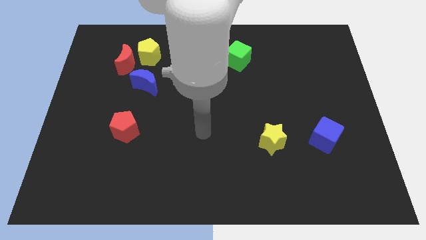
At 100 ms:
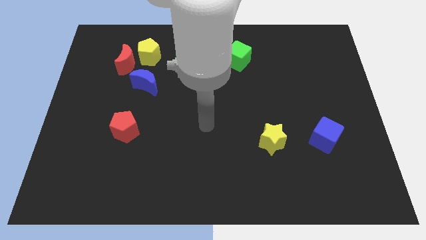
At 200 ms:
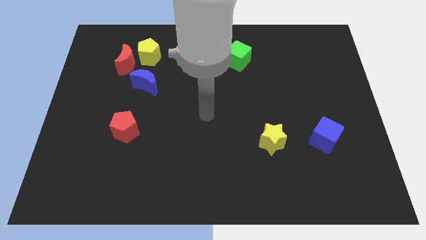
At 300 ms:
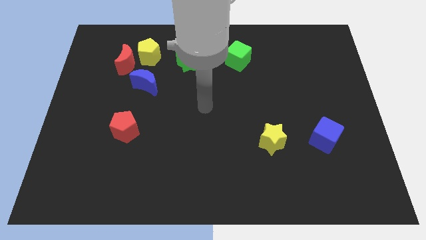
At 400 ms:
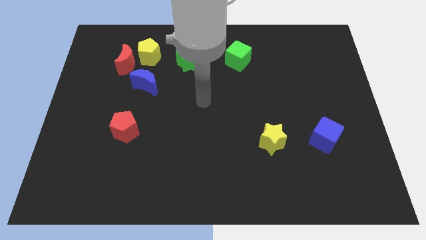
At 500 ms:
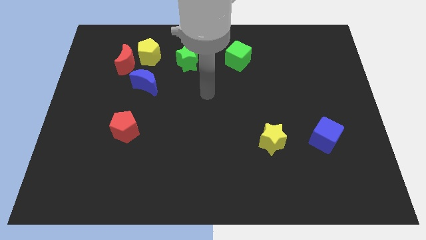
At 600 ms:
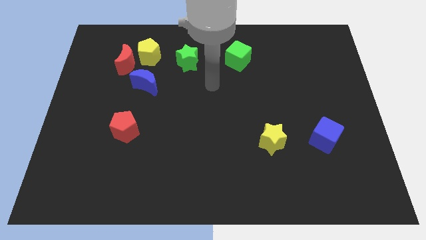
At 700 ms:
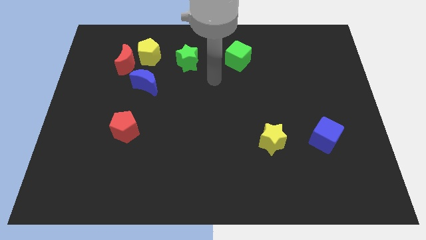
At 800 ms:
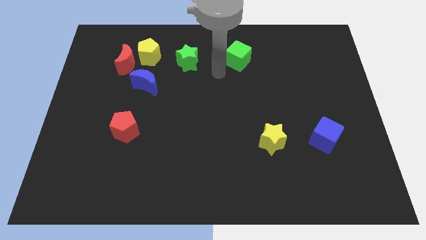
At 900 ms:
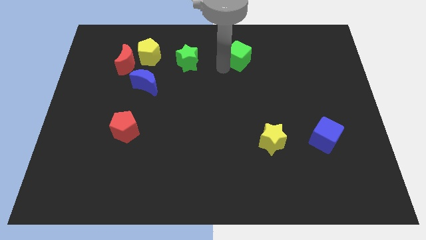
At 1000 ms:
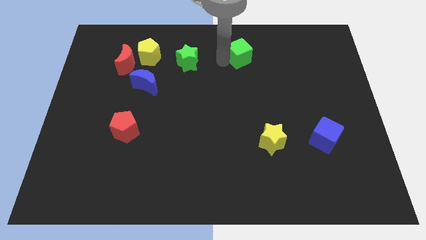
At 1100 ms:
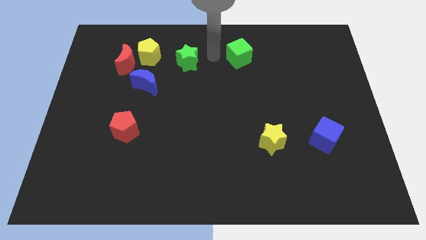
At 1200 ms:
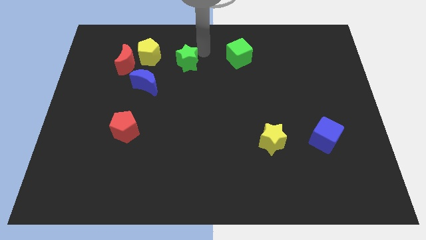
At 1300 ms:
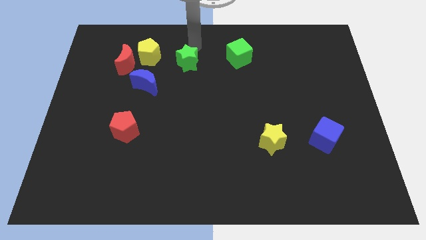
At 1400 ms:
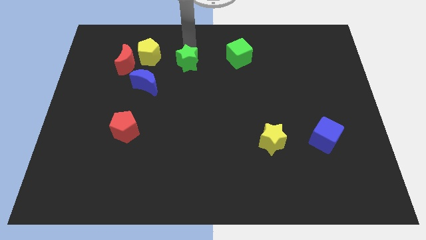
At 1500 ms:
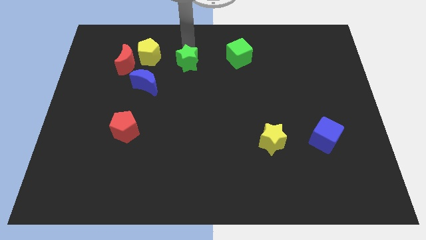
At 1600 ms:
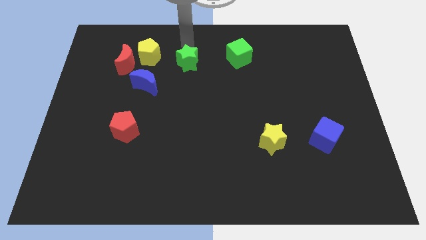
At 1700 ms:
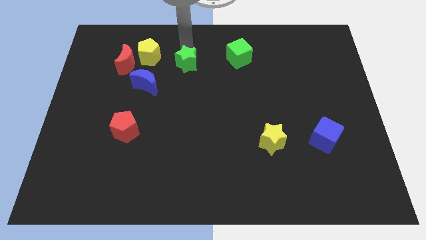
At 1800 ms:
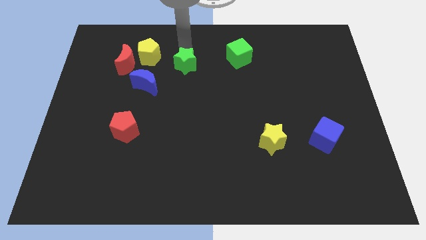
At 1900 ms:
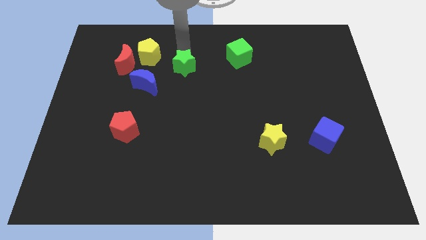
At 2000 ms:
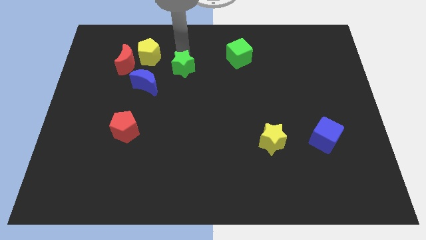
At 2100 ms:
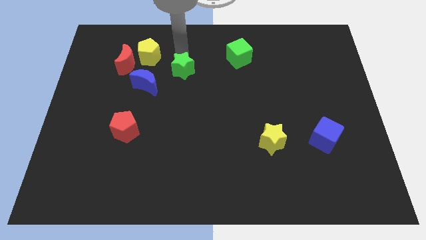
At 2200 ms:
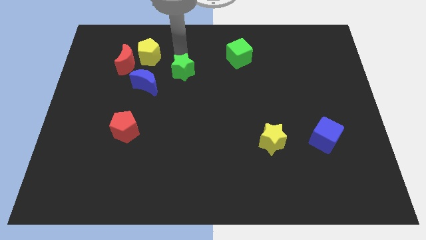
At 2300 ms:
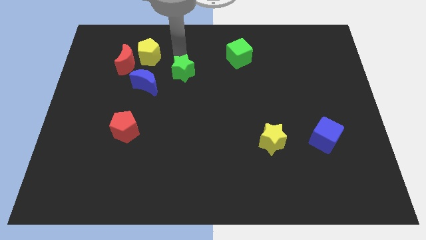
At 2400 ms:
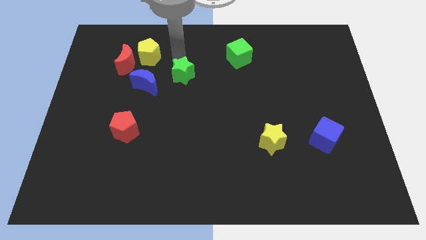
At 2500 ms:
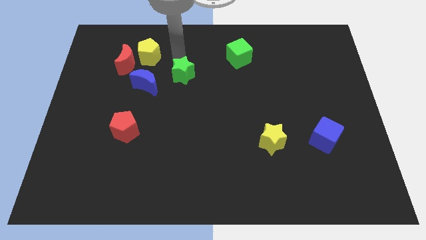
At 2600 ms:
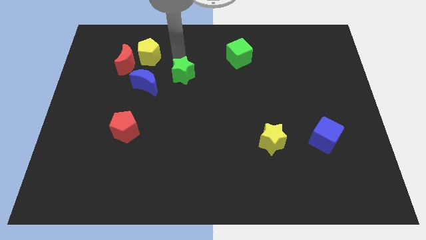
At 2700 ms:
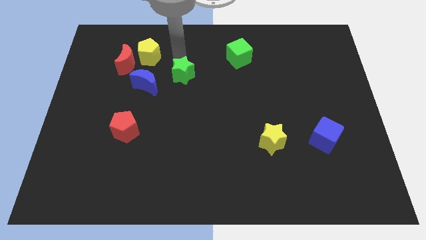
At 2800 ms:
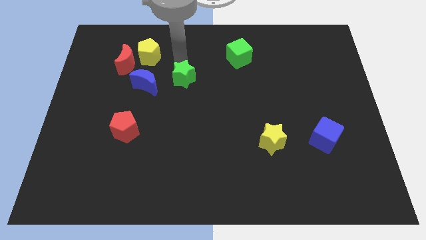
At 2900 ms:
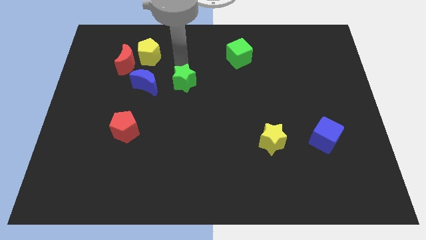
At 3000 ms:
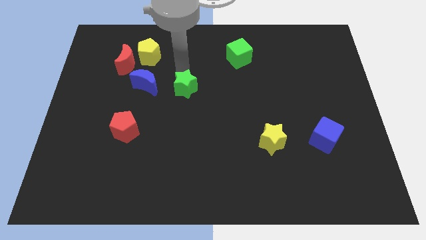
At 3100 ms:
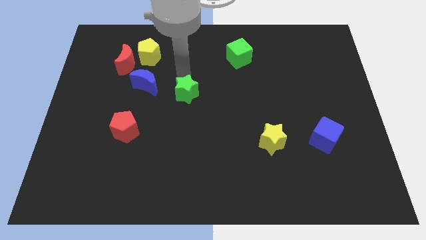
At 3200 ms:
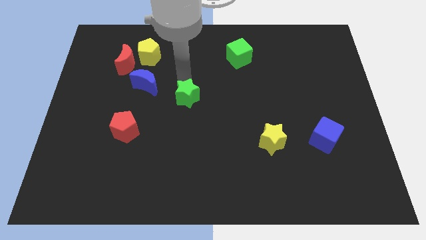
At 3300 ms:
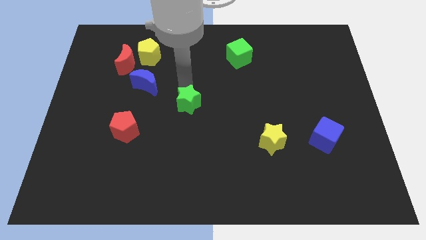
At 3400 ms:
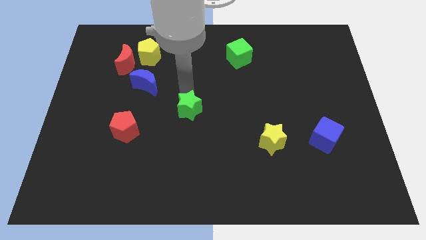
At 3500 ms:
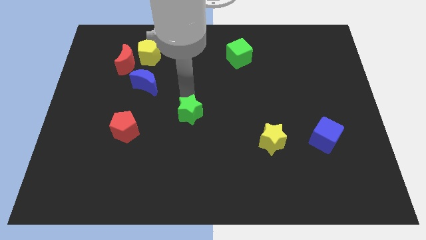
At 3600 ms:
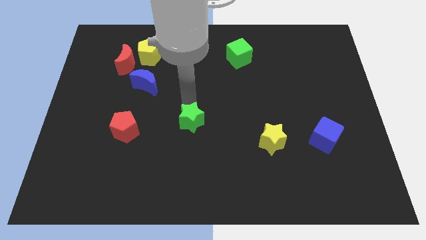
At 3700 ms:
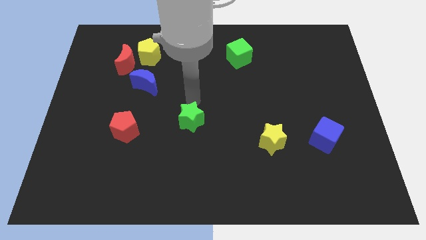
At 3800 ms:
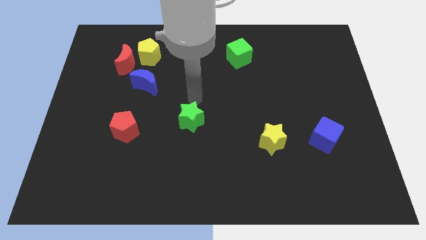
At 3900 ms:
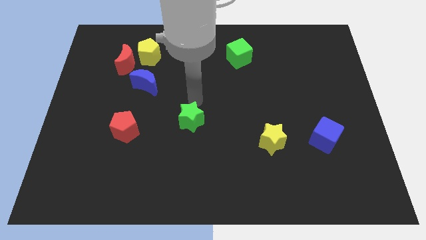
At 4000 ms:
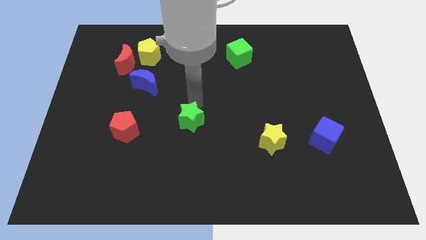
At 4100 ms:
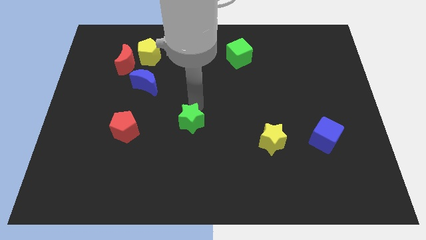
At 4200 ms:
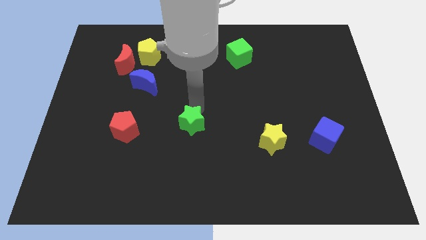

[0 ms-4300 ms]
slide the green star down

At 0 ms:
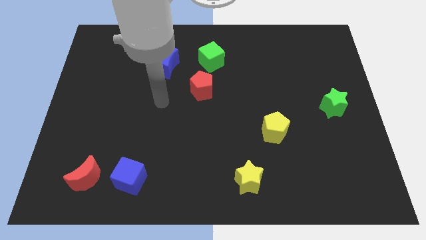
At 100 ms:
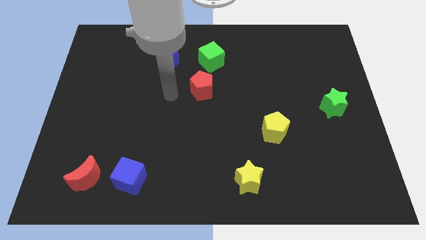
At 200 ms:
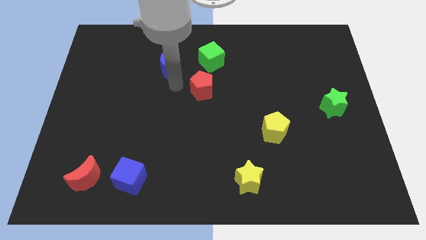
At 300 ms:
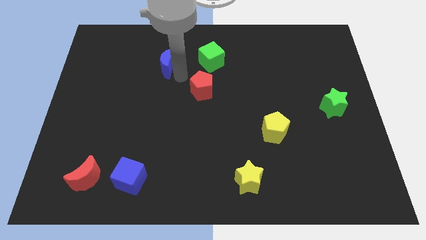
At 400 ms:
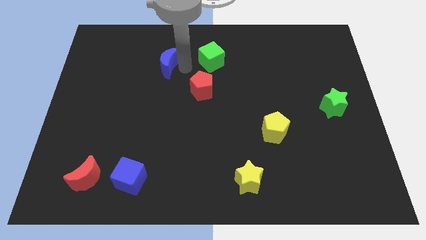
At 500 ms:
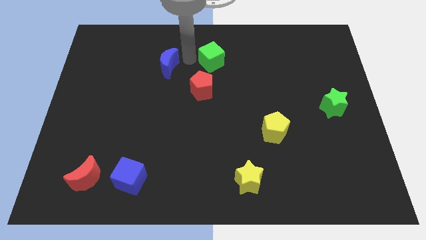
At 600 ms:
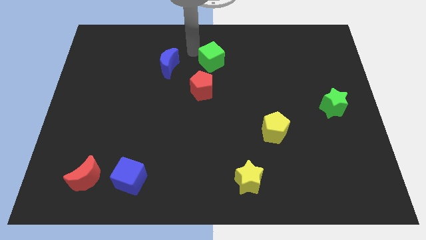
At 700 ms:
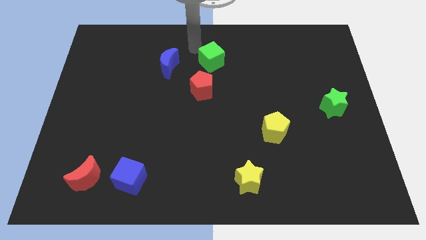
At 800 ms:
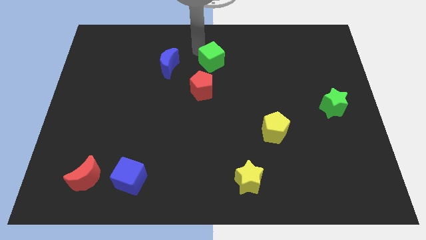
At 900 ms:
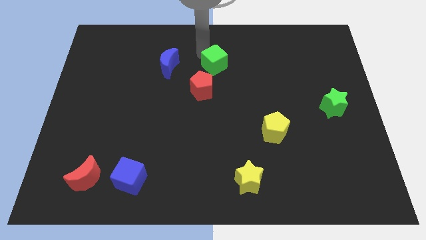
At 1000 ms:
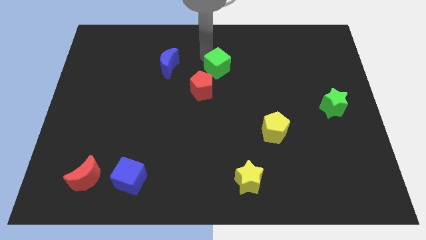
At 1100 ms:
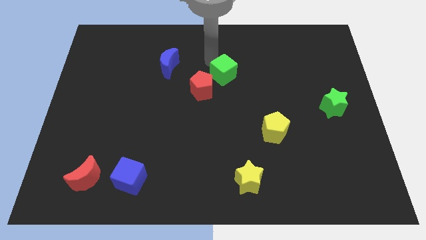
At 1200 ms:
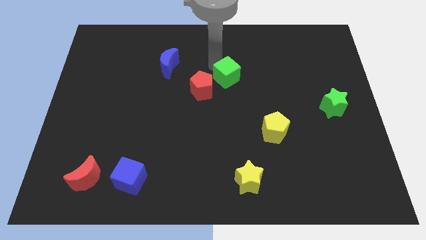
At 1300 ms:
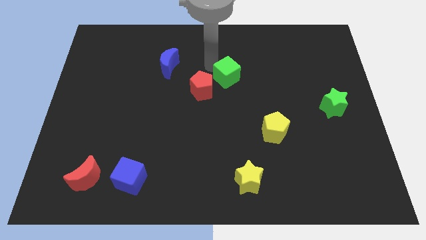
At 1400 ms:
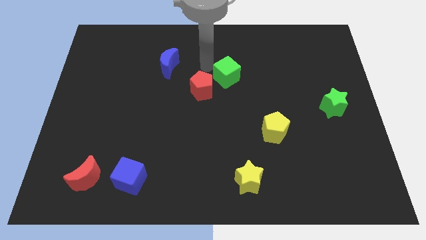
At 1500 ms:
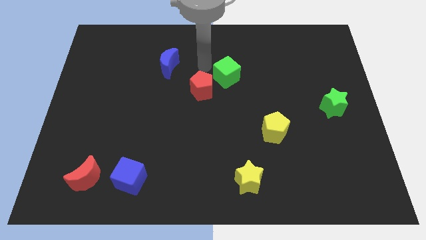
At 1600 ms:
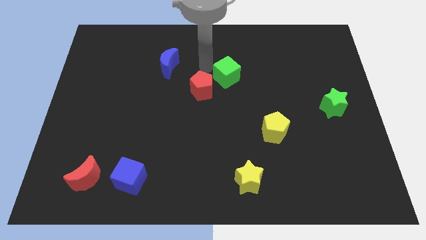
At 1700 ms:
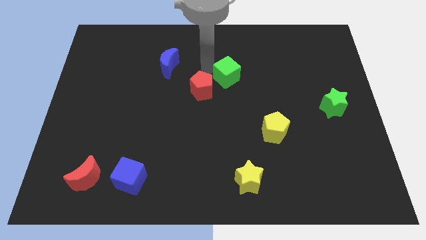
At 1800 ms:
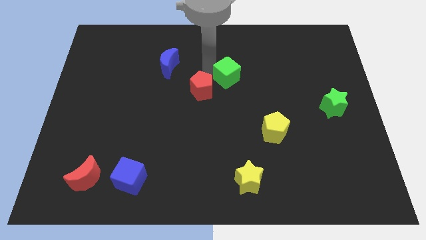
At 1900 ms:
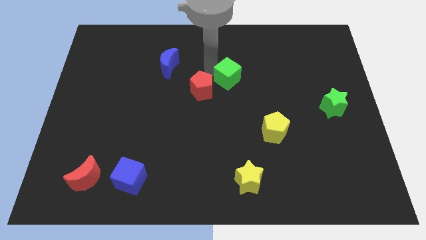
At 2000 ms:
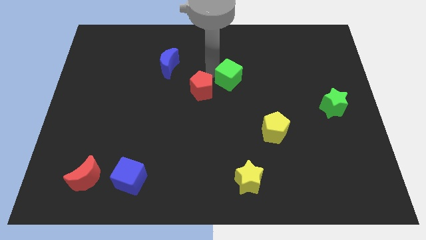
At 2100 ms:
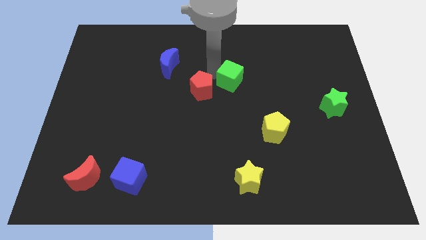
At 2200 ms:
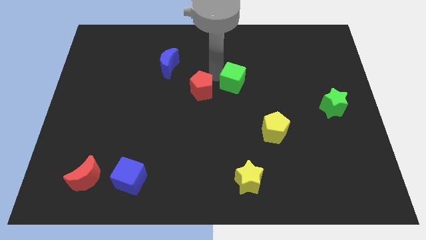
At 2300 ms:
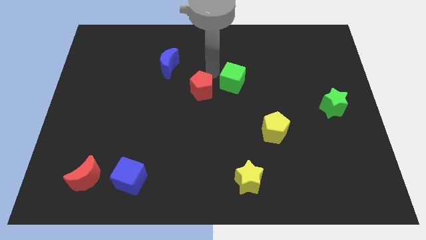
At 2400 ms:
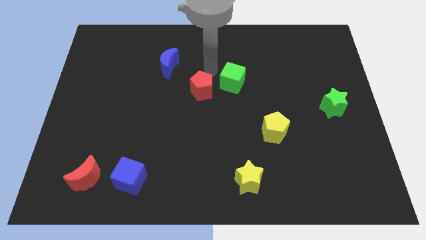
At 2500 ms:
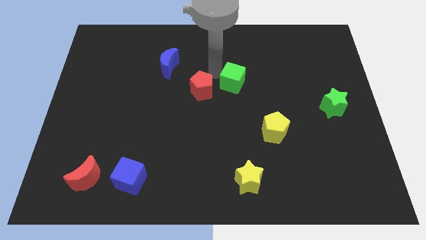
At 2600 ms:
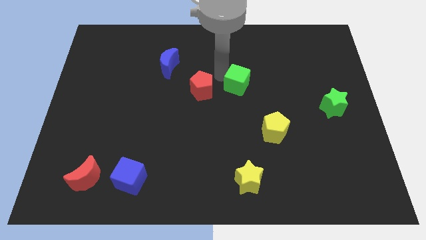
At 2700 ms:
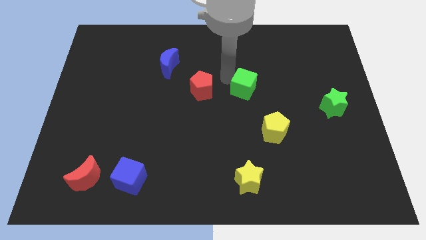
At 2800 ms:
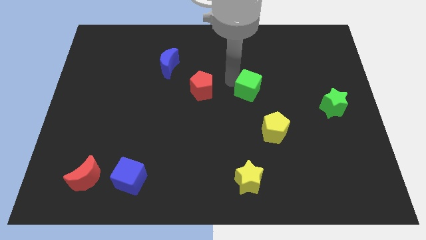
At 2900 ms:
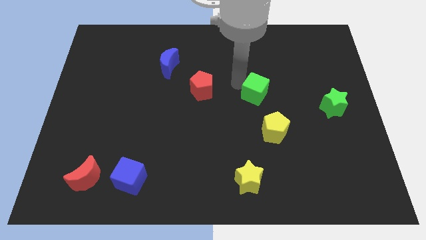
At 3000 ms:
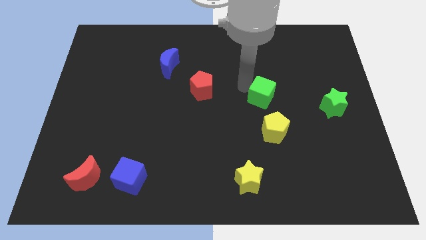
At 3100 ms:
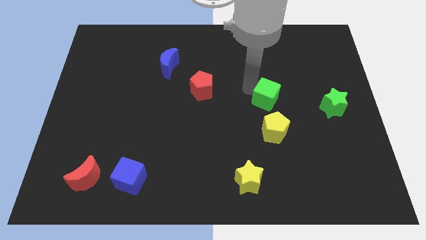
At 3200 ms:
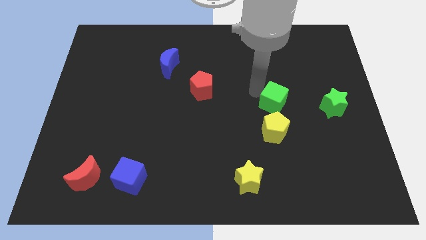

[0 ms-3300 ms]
push the green cube down and right diagonally

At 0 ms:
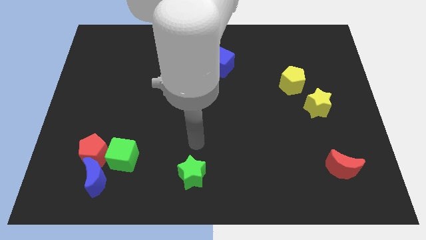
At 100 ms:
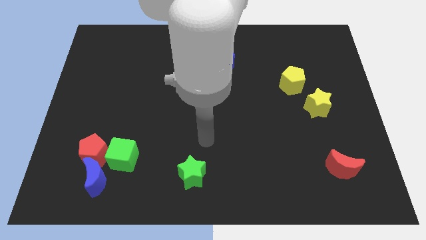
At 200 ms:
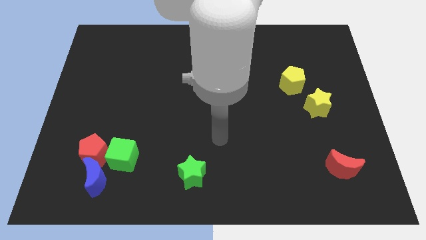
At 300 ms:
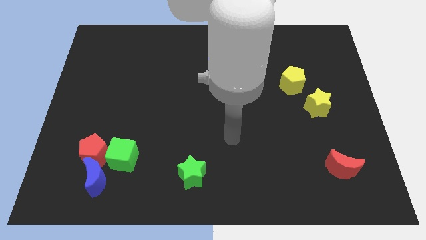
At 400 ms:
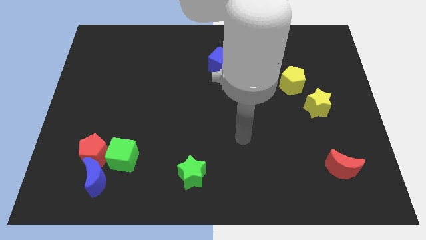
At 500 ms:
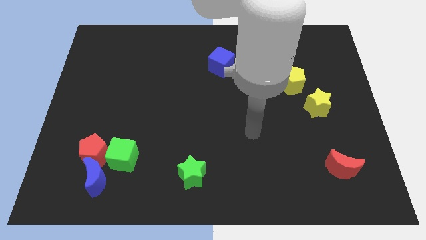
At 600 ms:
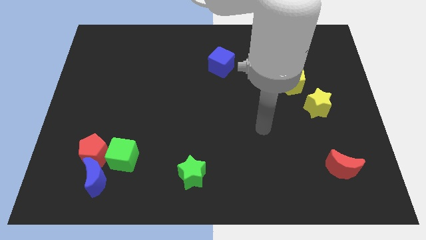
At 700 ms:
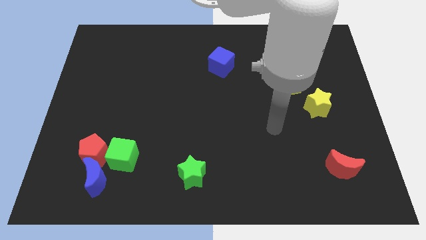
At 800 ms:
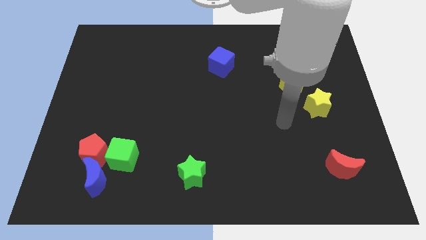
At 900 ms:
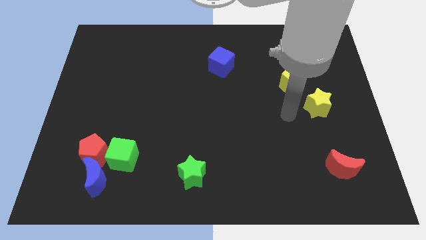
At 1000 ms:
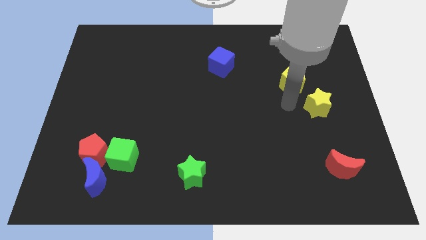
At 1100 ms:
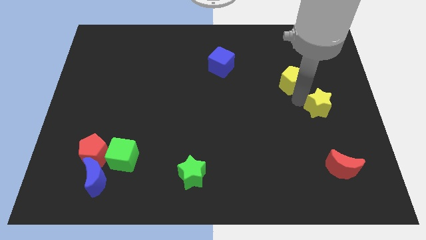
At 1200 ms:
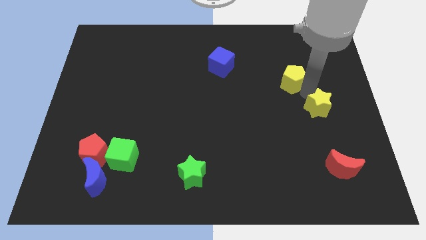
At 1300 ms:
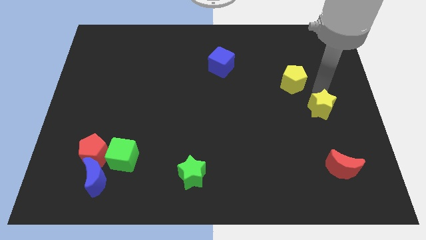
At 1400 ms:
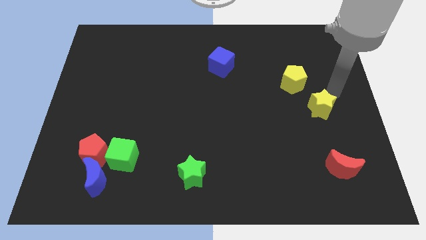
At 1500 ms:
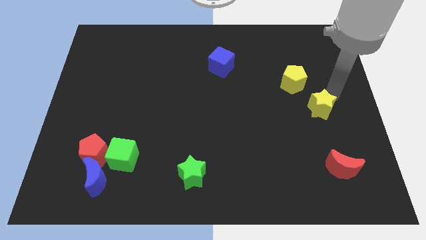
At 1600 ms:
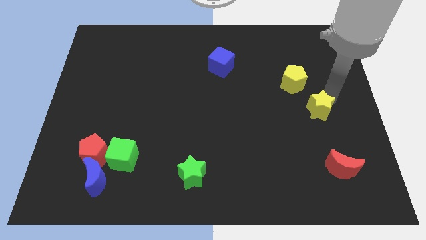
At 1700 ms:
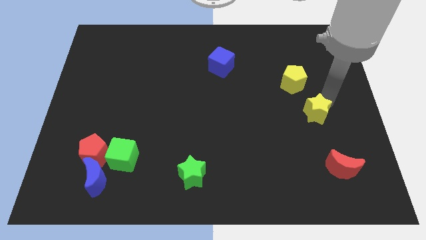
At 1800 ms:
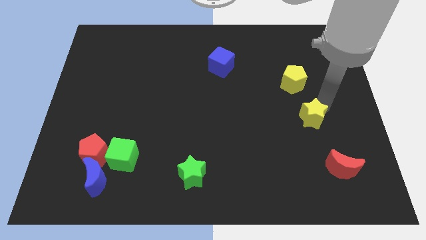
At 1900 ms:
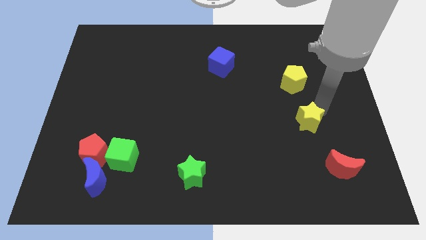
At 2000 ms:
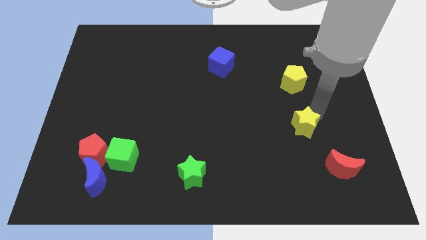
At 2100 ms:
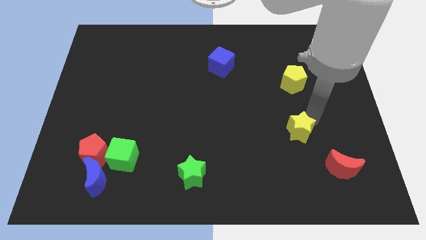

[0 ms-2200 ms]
slightly slide the yellow star downwards and to the left diagonally
